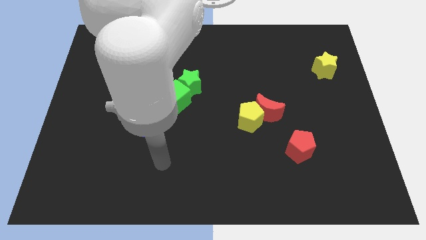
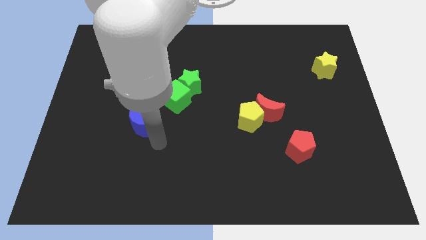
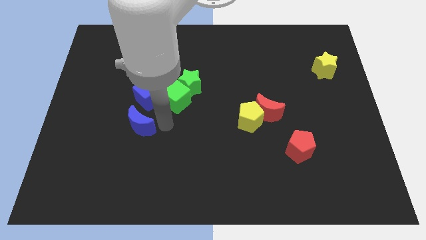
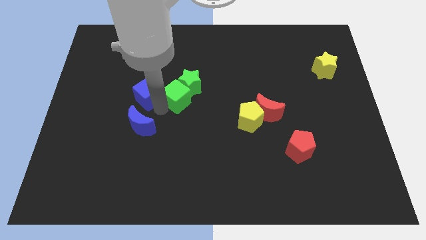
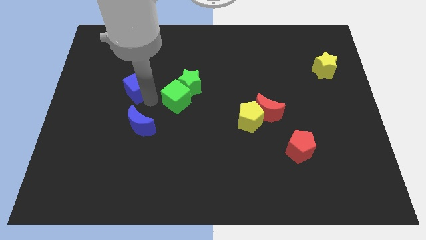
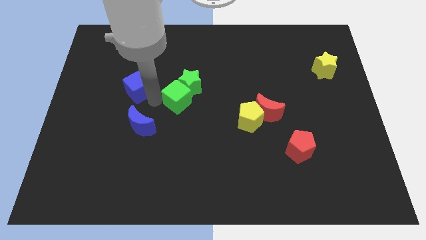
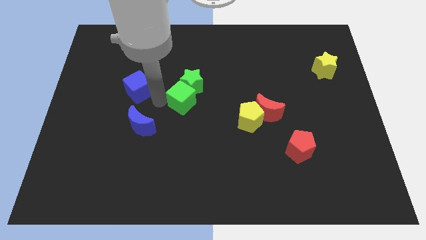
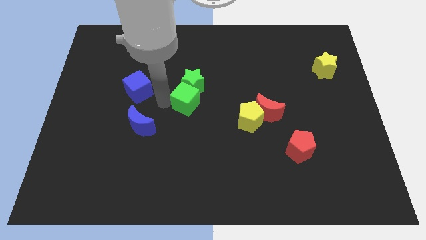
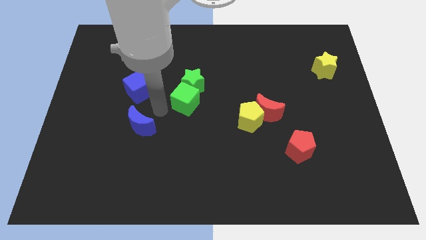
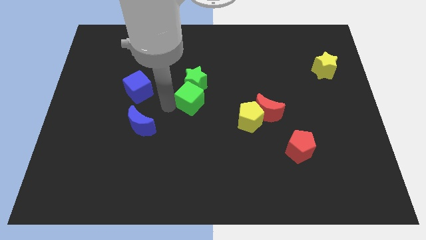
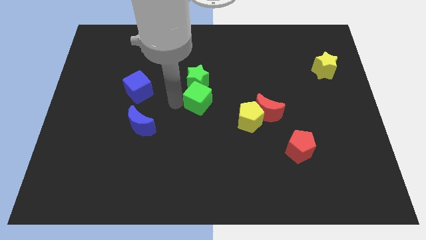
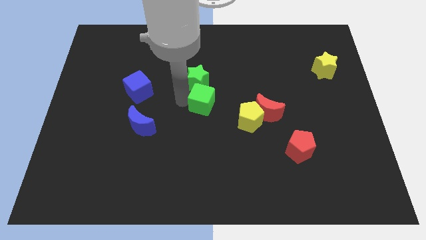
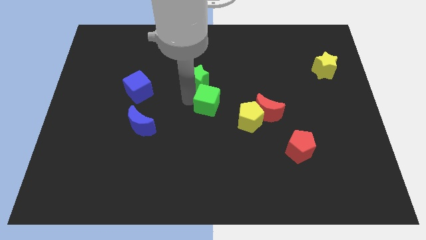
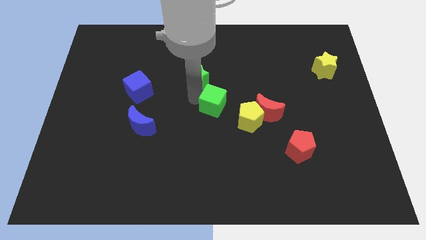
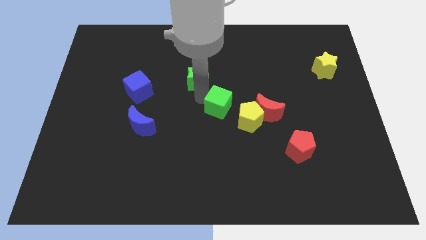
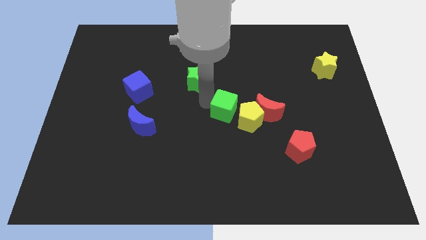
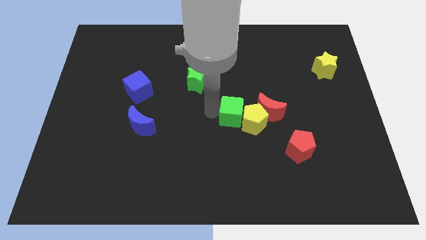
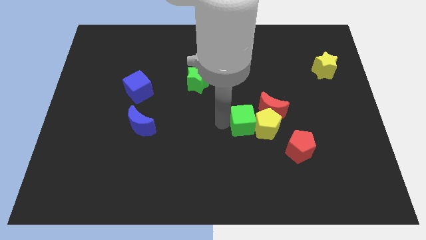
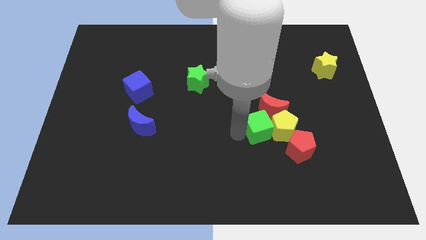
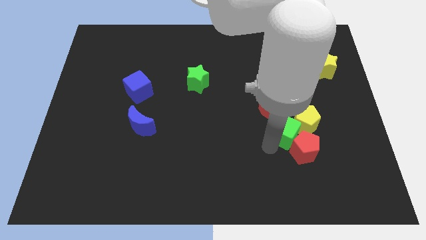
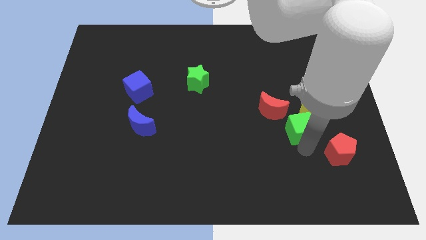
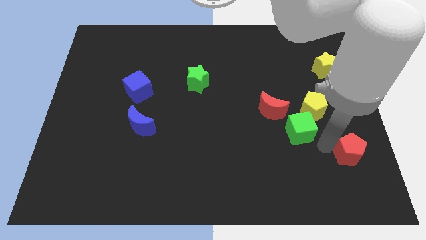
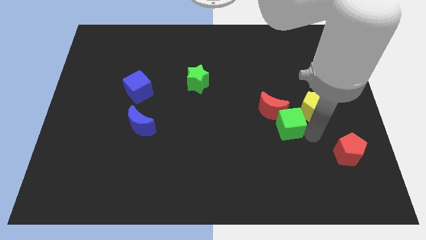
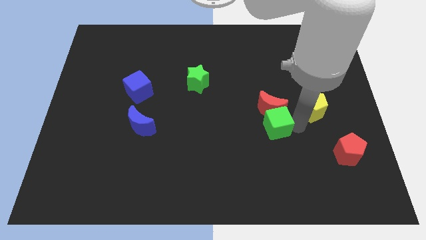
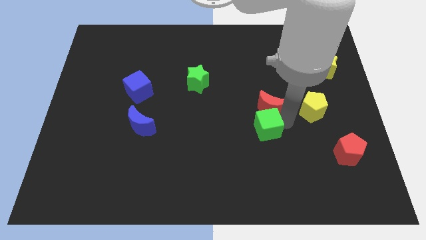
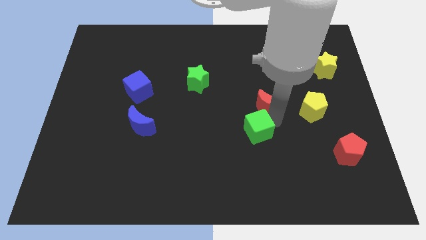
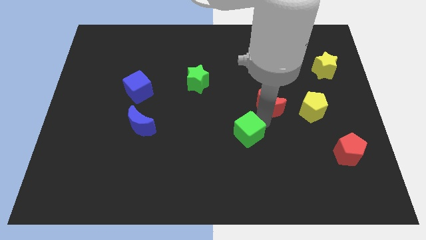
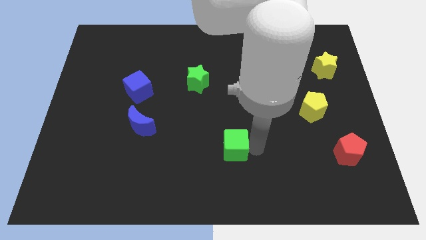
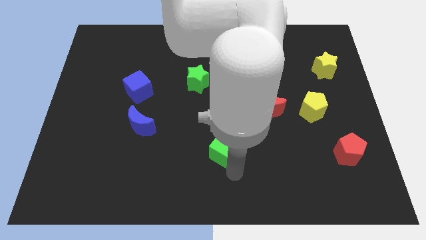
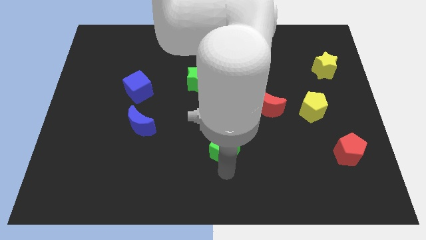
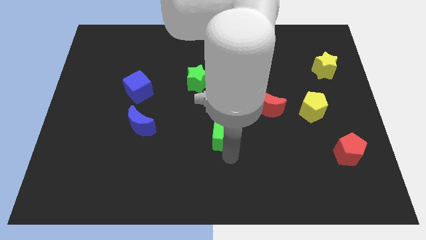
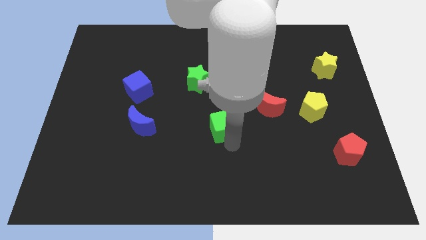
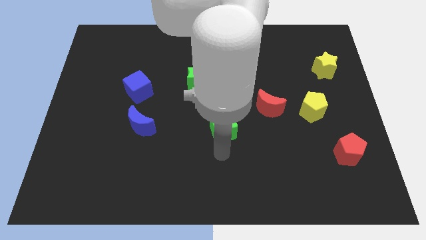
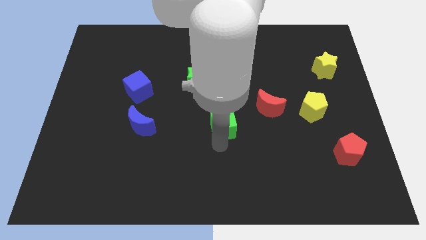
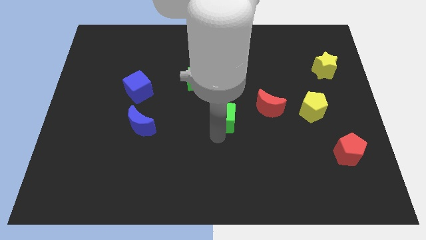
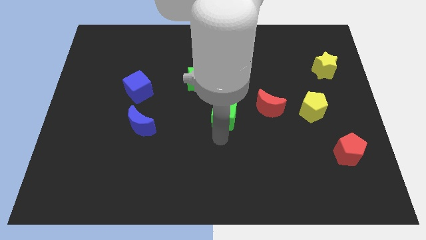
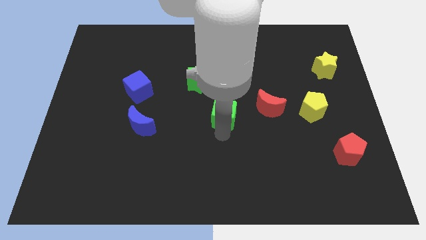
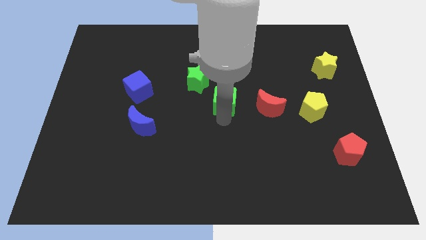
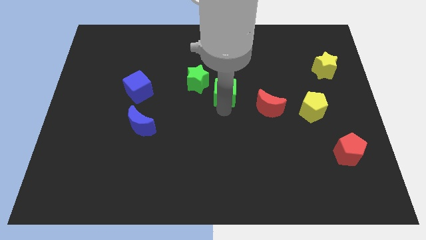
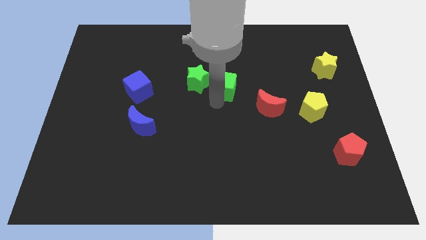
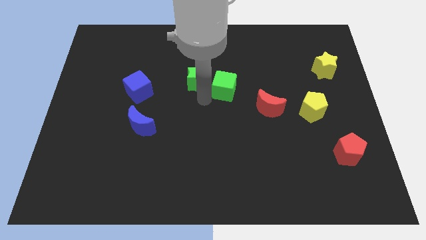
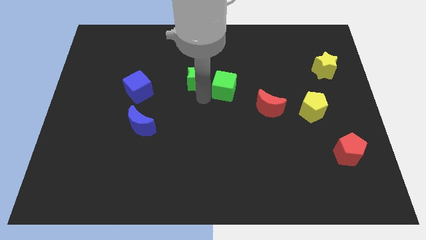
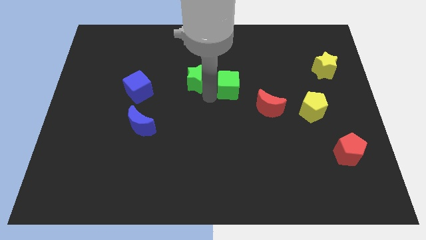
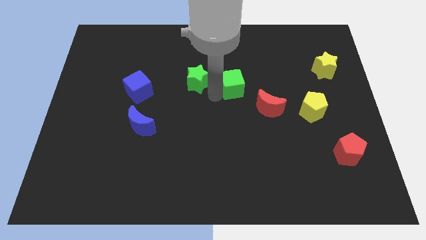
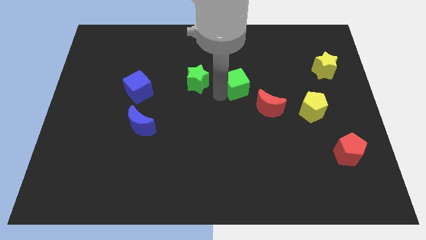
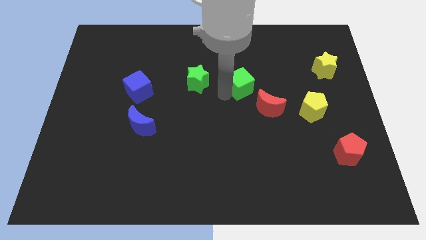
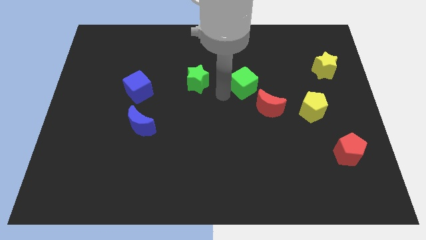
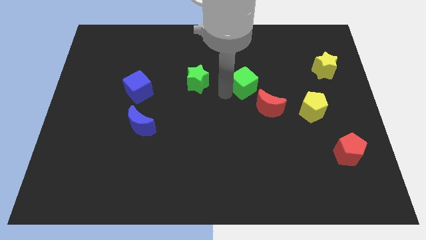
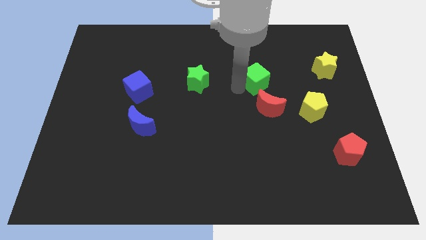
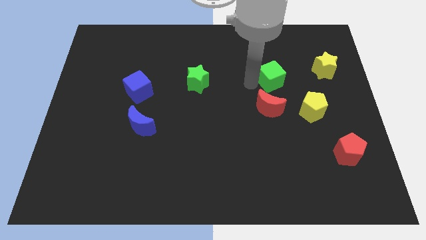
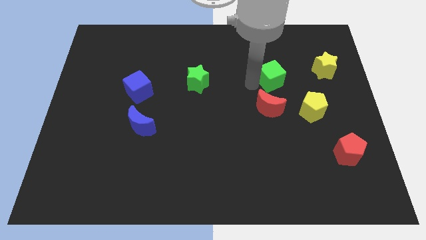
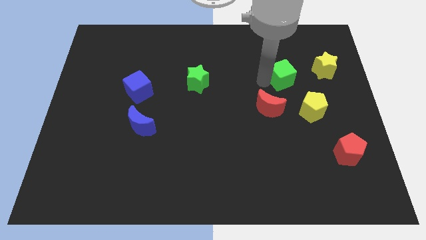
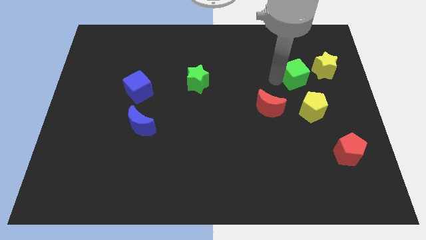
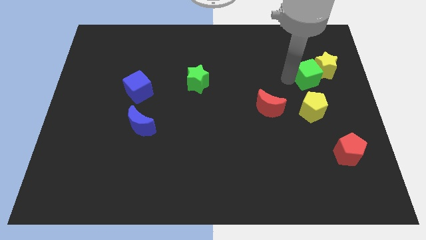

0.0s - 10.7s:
put the green cube close to the yellow star
